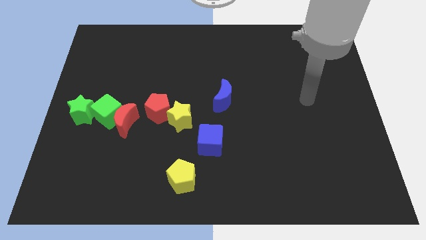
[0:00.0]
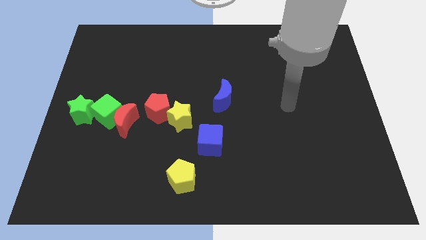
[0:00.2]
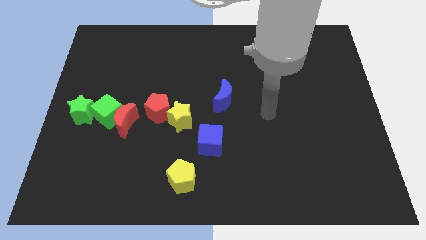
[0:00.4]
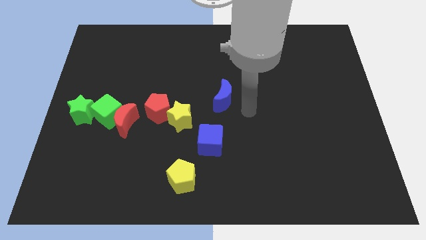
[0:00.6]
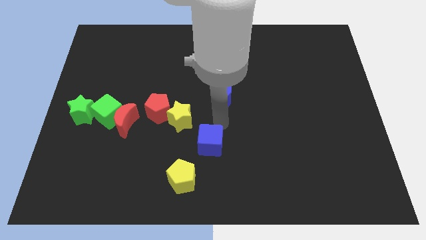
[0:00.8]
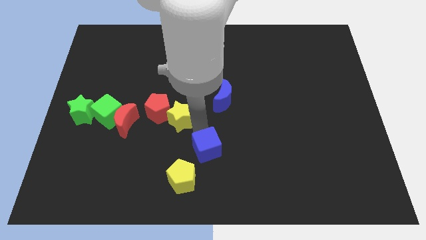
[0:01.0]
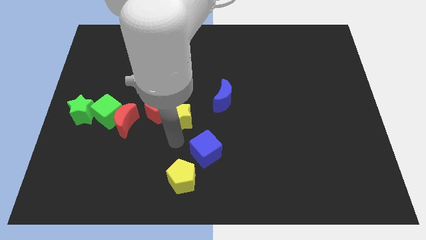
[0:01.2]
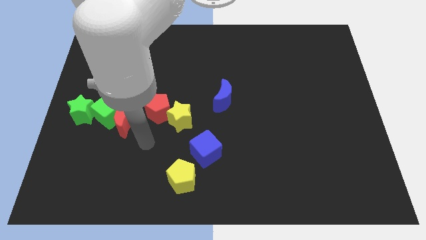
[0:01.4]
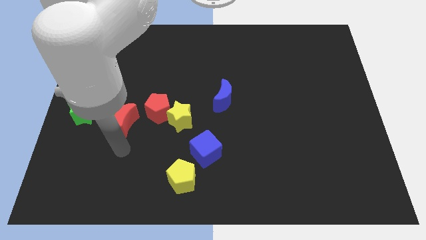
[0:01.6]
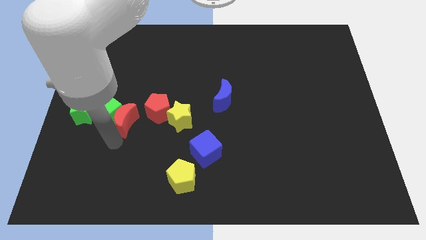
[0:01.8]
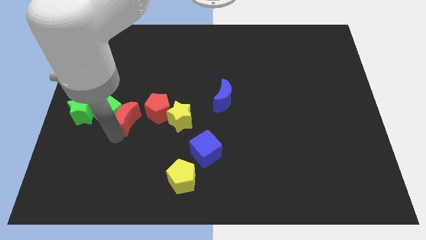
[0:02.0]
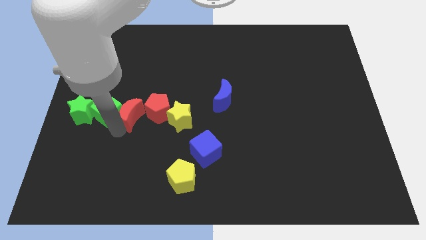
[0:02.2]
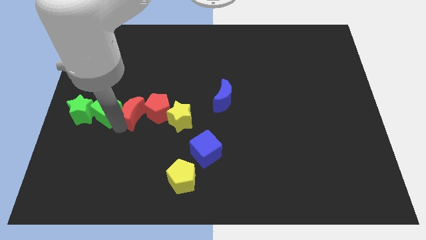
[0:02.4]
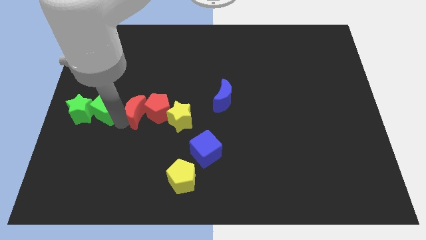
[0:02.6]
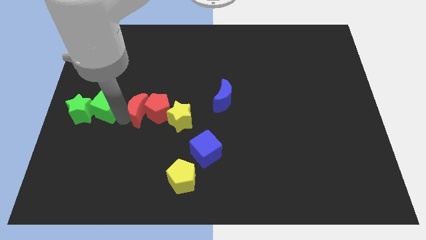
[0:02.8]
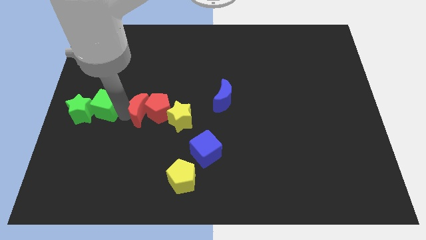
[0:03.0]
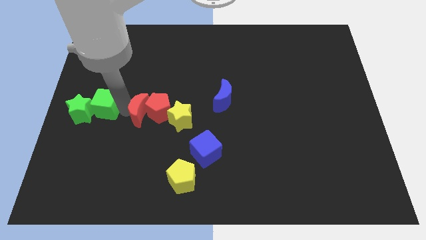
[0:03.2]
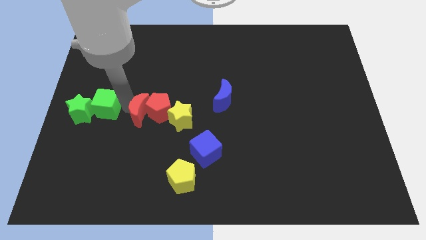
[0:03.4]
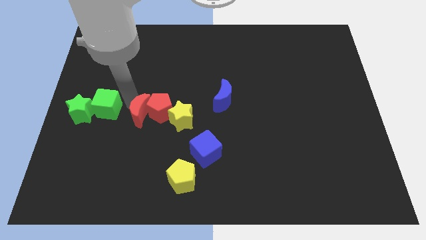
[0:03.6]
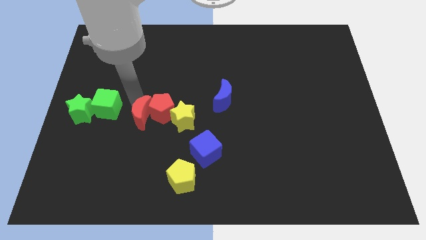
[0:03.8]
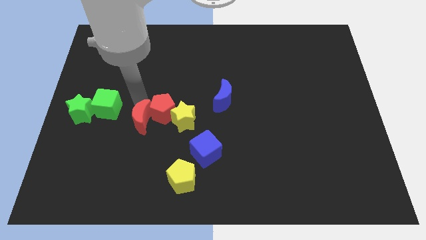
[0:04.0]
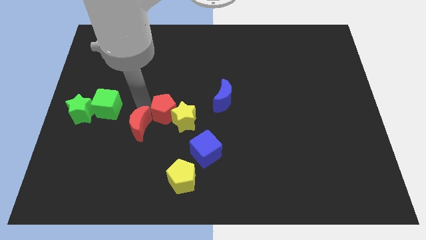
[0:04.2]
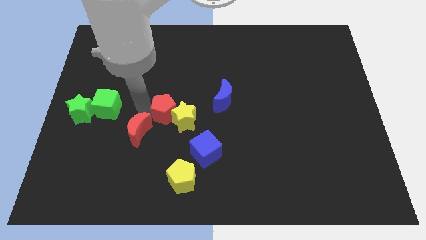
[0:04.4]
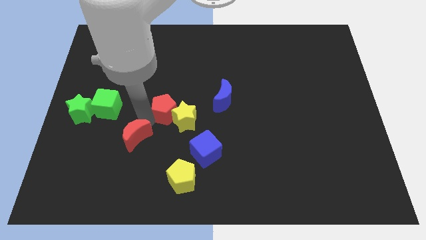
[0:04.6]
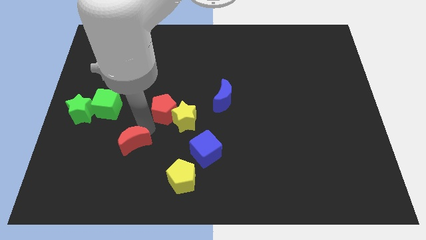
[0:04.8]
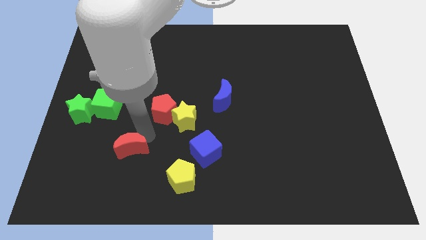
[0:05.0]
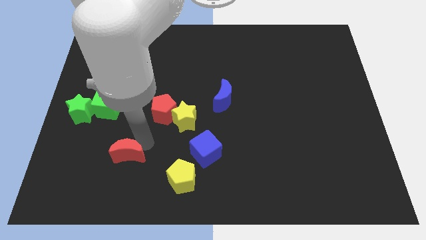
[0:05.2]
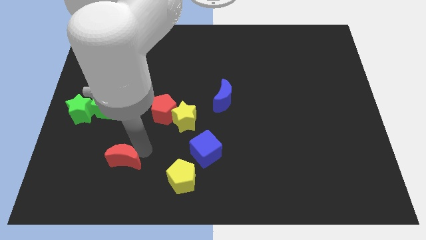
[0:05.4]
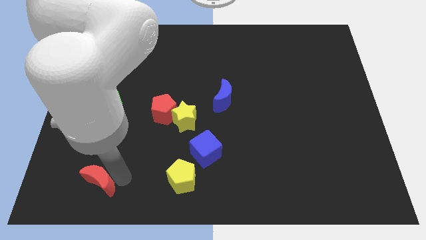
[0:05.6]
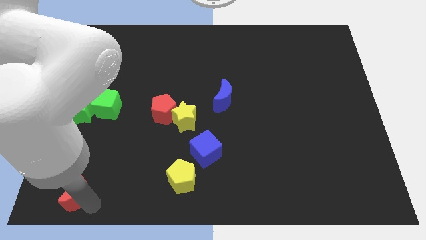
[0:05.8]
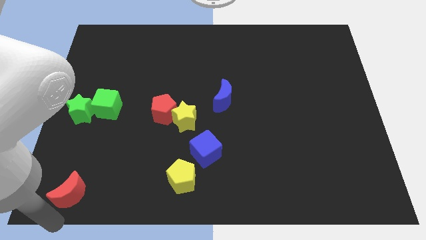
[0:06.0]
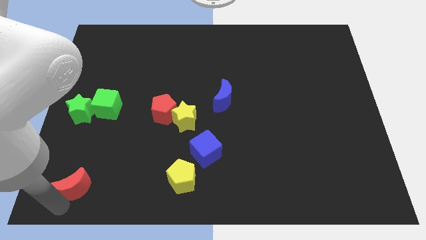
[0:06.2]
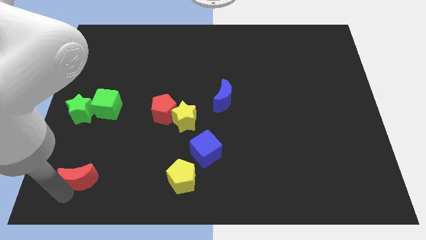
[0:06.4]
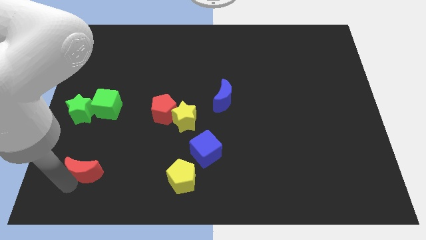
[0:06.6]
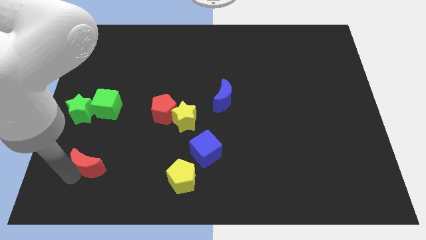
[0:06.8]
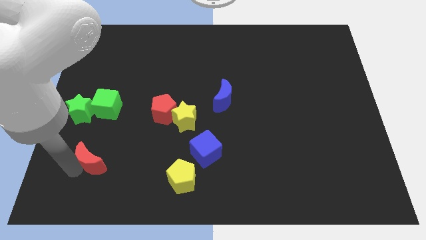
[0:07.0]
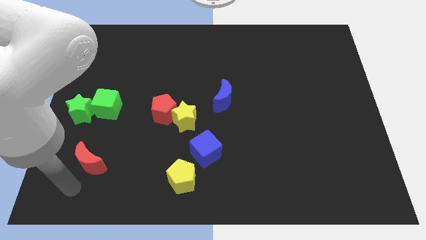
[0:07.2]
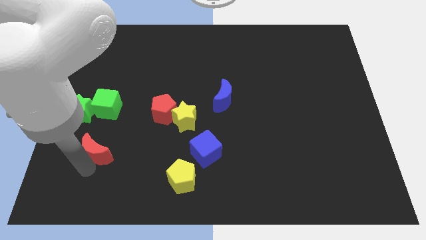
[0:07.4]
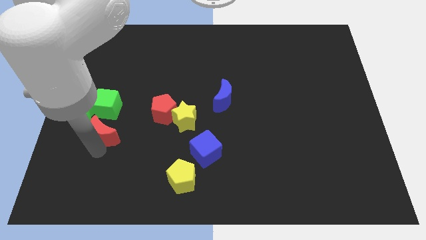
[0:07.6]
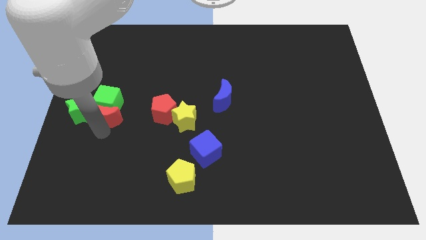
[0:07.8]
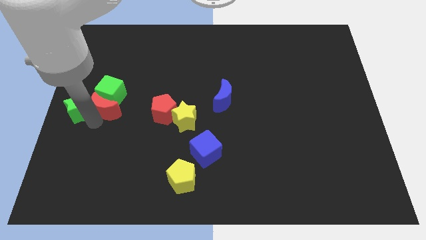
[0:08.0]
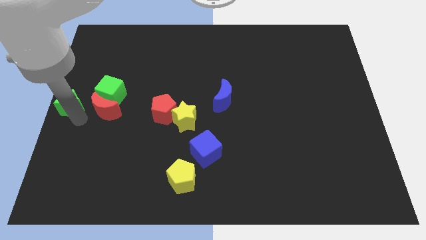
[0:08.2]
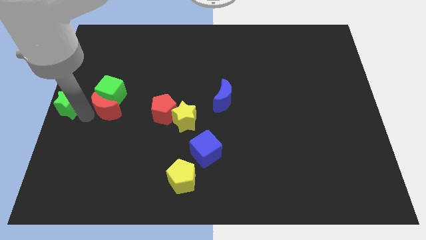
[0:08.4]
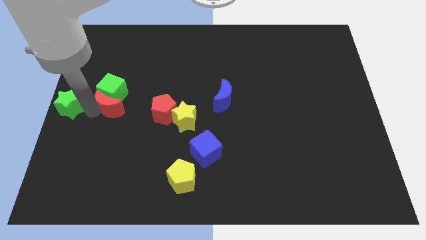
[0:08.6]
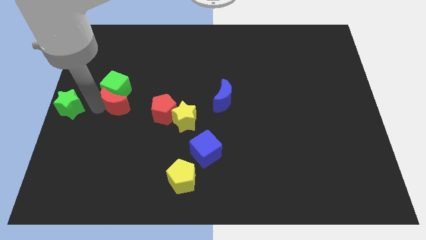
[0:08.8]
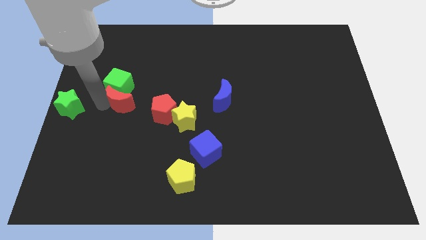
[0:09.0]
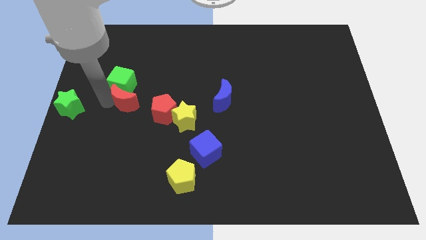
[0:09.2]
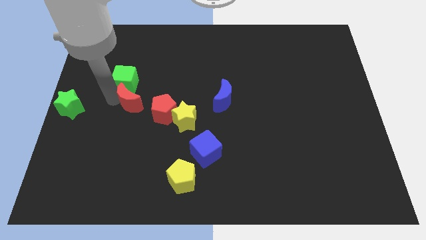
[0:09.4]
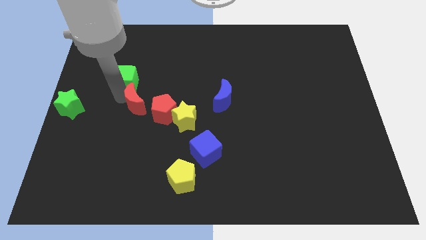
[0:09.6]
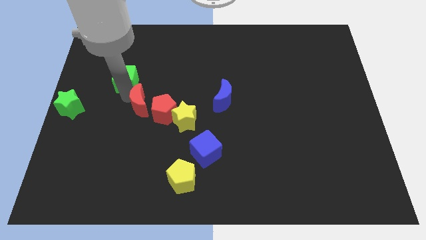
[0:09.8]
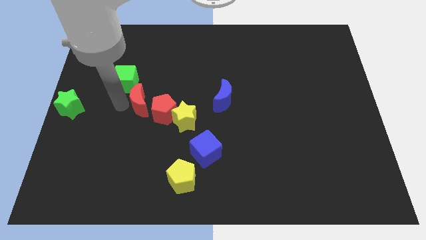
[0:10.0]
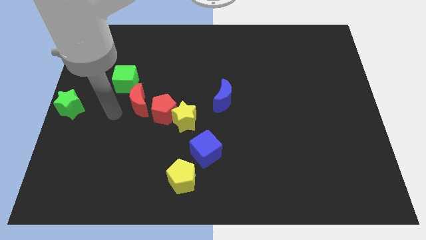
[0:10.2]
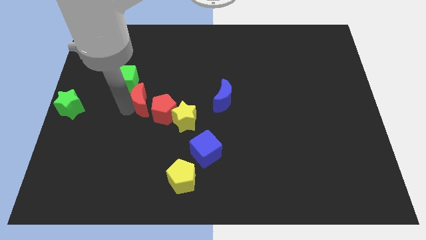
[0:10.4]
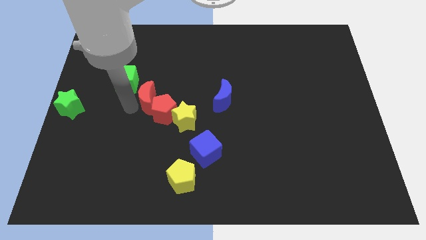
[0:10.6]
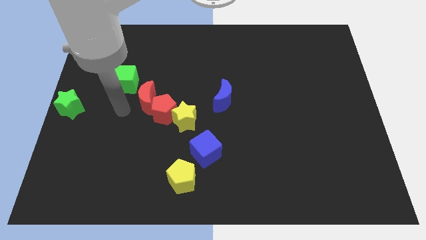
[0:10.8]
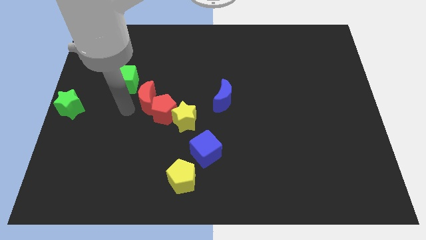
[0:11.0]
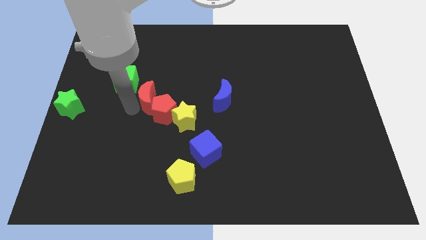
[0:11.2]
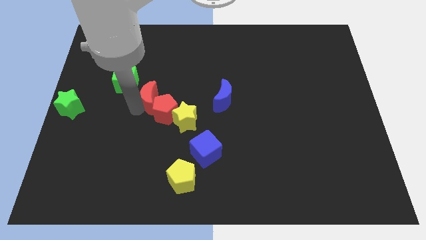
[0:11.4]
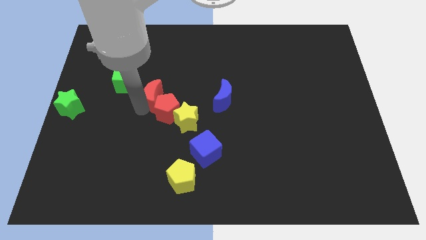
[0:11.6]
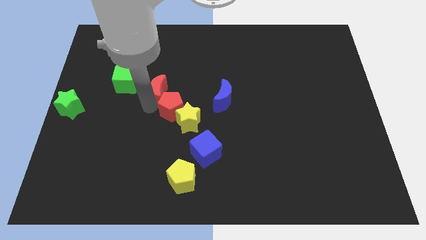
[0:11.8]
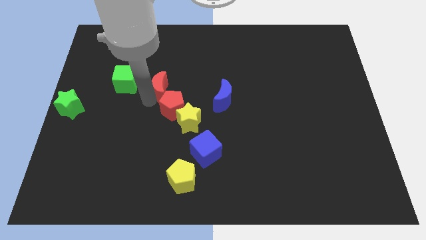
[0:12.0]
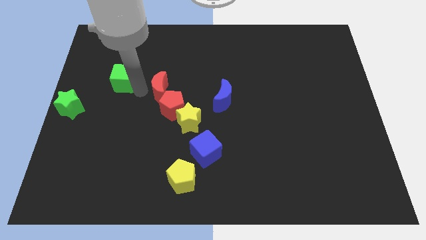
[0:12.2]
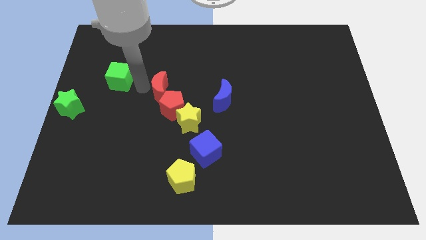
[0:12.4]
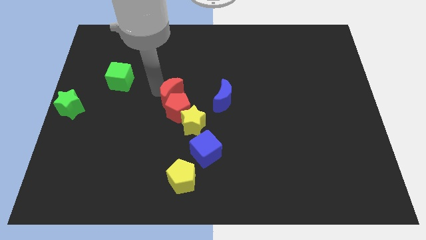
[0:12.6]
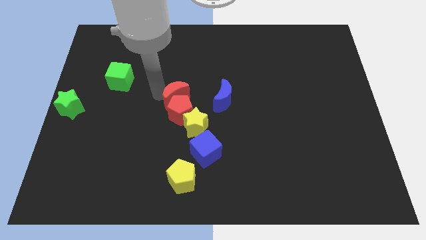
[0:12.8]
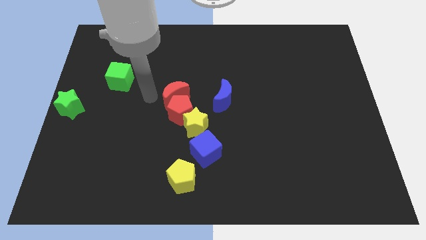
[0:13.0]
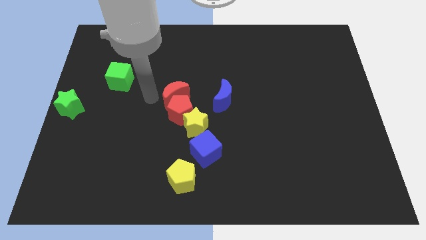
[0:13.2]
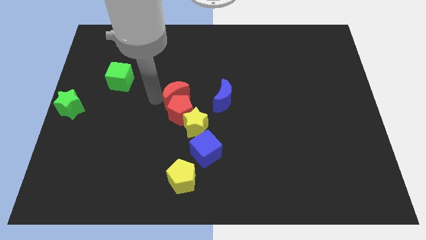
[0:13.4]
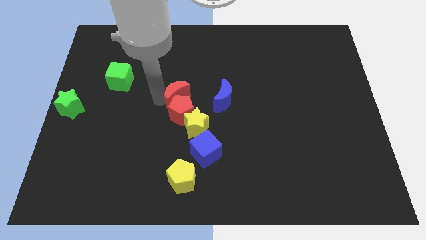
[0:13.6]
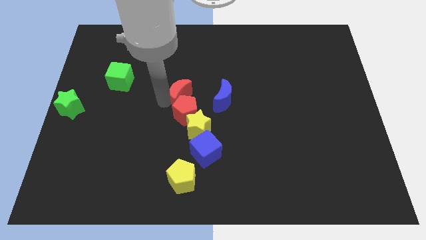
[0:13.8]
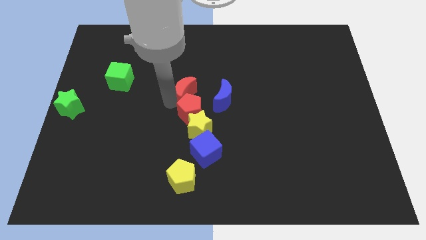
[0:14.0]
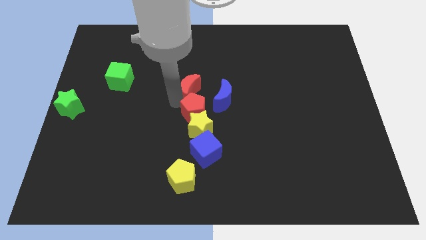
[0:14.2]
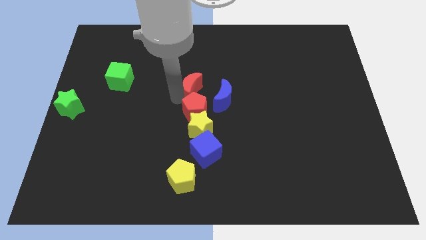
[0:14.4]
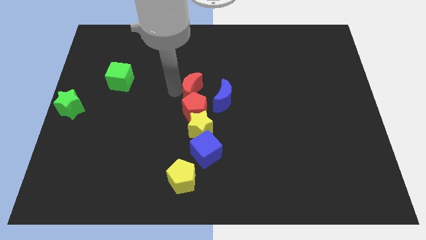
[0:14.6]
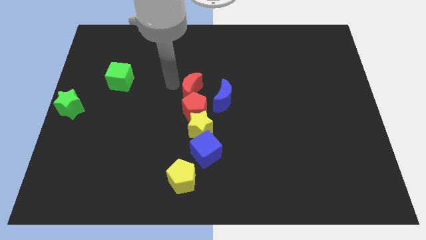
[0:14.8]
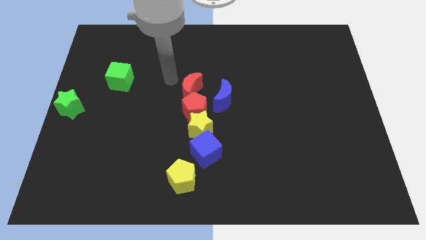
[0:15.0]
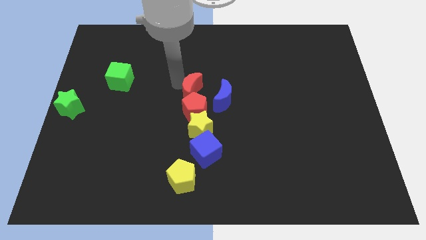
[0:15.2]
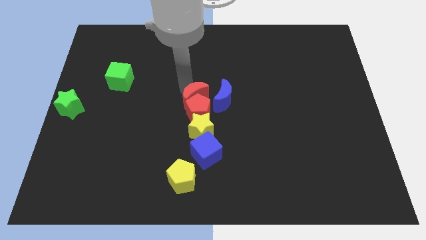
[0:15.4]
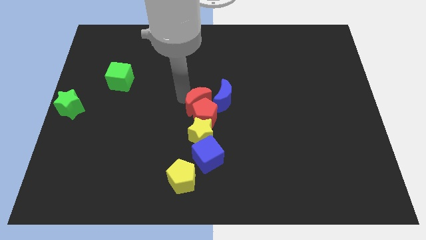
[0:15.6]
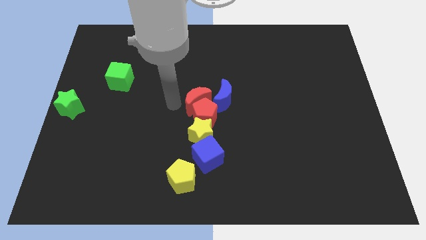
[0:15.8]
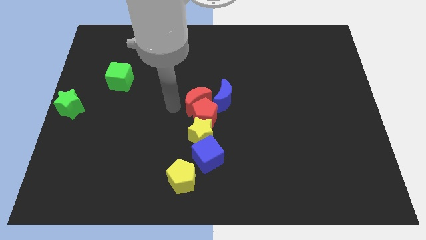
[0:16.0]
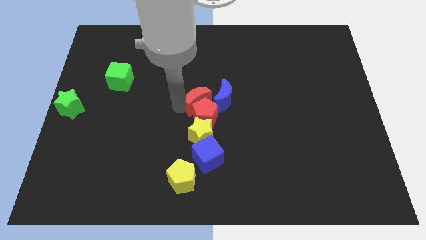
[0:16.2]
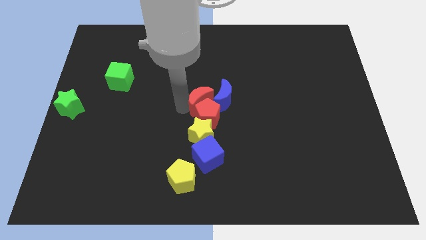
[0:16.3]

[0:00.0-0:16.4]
push the red moon to the blue moon
